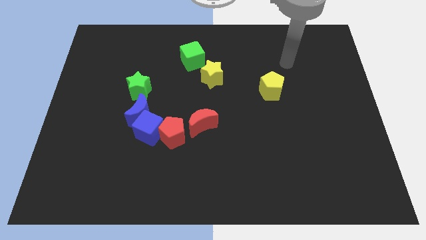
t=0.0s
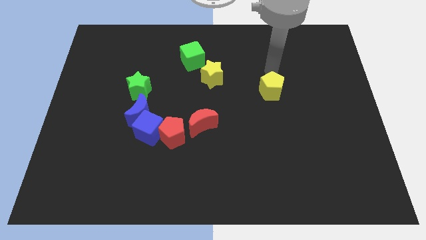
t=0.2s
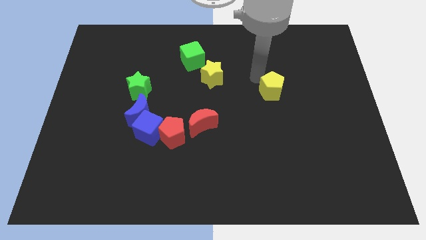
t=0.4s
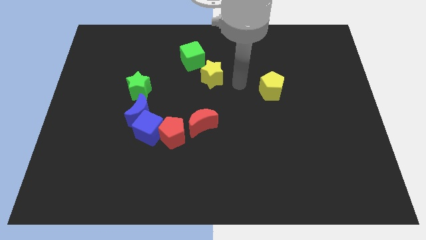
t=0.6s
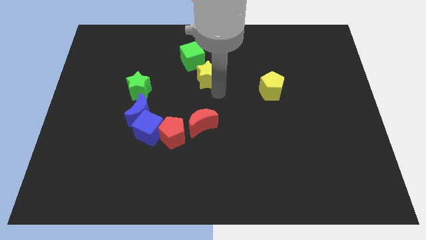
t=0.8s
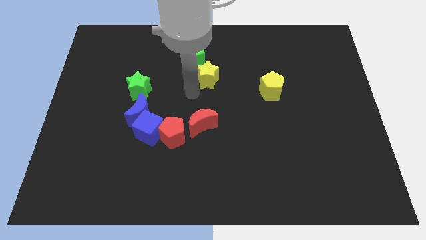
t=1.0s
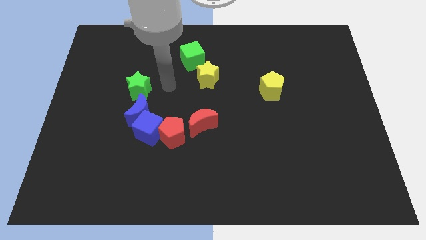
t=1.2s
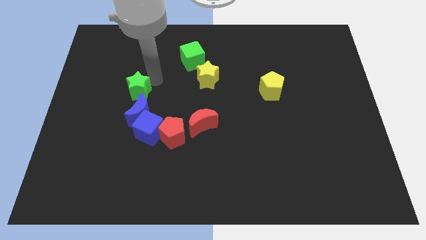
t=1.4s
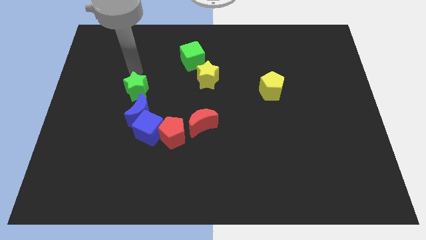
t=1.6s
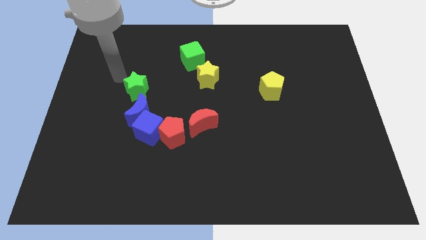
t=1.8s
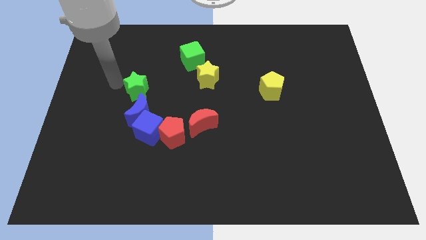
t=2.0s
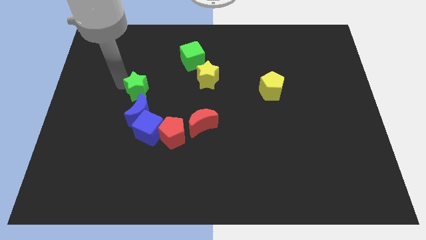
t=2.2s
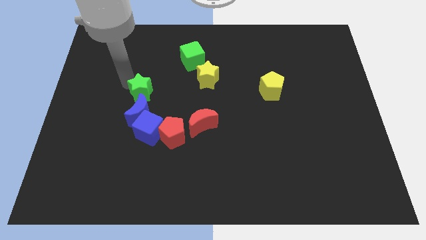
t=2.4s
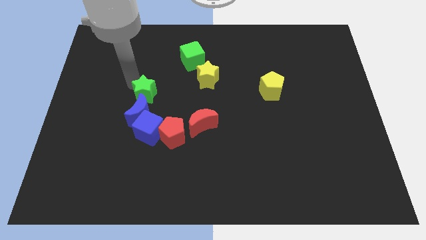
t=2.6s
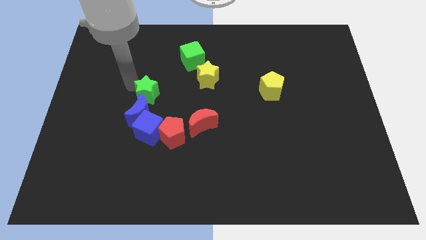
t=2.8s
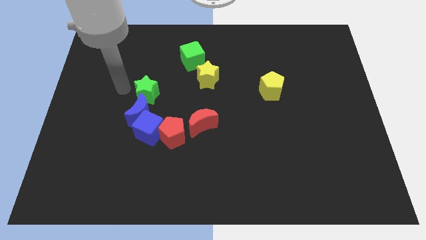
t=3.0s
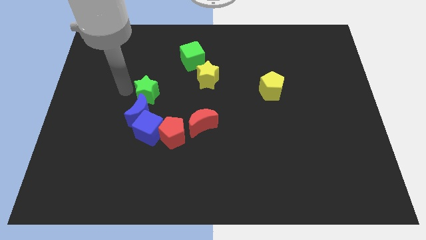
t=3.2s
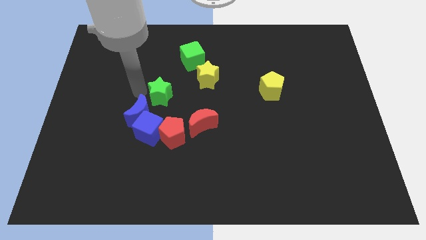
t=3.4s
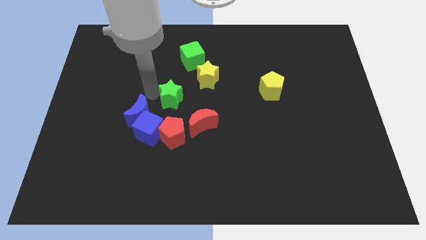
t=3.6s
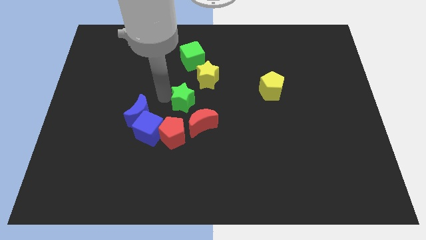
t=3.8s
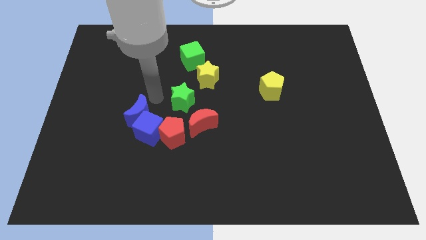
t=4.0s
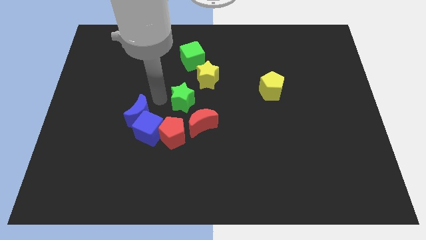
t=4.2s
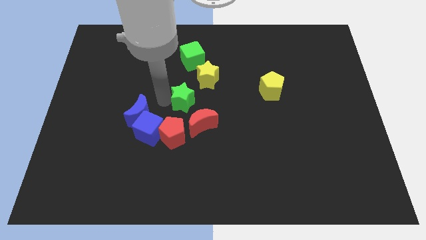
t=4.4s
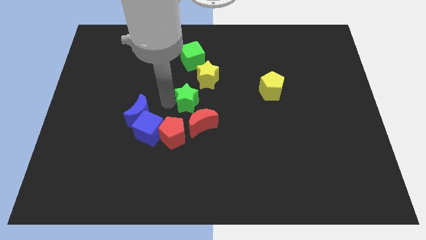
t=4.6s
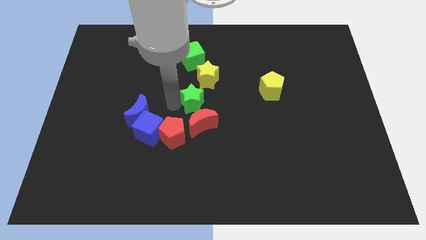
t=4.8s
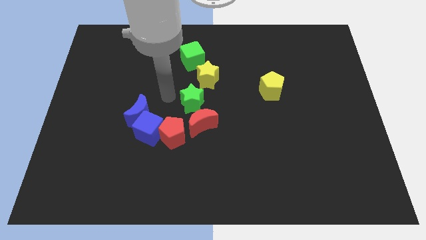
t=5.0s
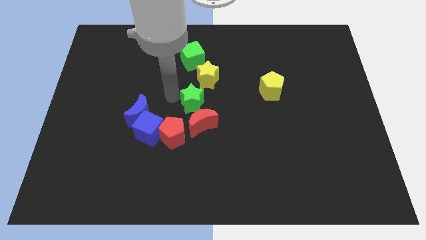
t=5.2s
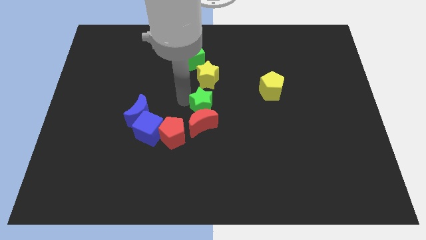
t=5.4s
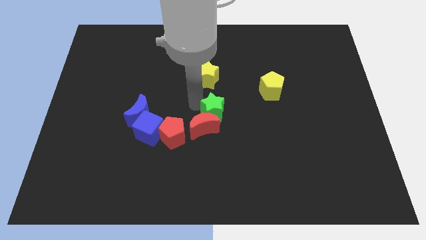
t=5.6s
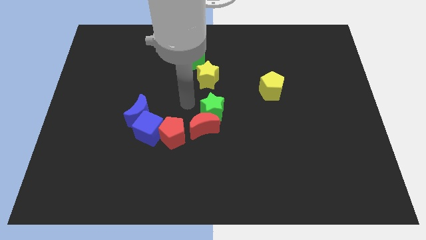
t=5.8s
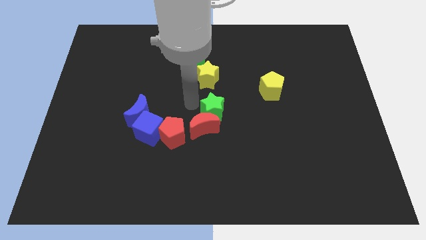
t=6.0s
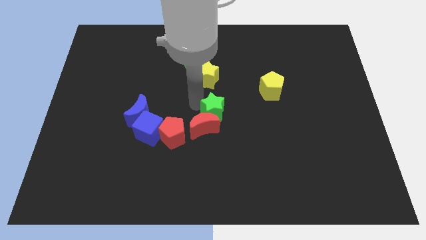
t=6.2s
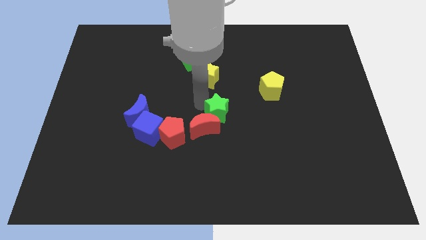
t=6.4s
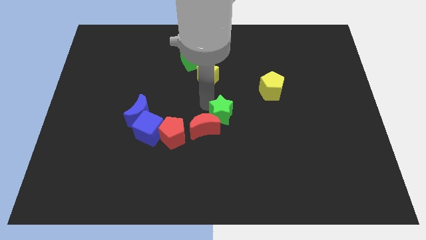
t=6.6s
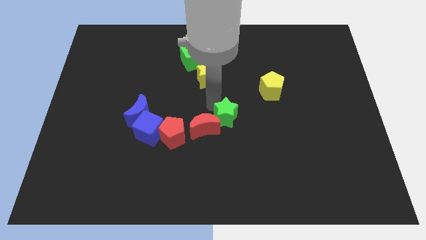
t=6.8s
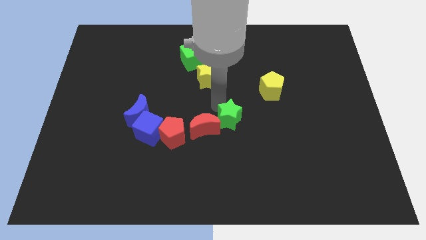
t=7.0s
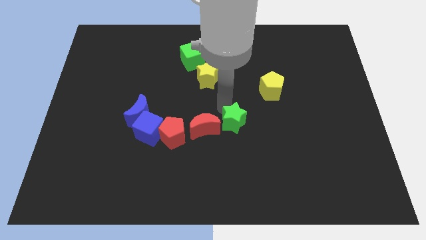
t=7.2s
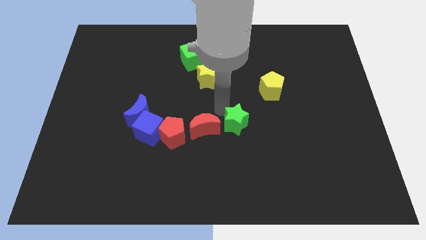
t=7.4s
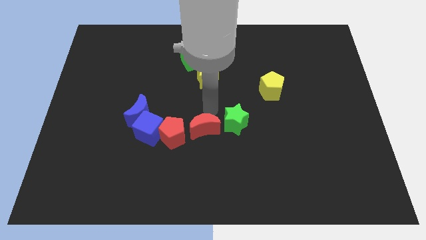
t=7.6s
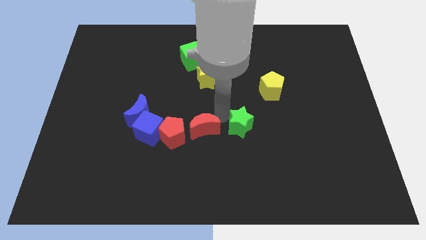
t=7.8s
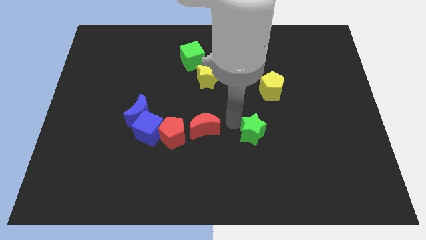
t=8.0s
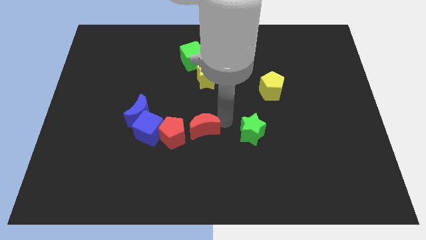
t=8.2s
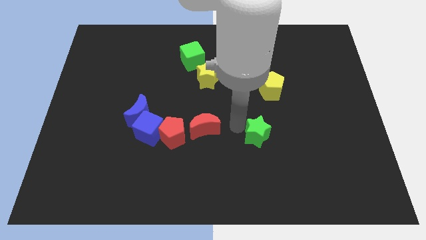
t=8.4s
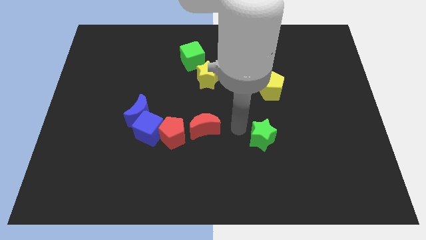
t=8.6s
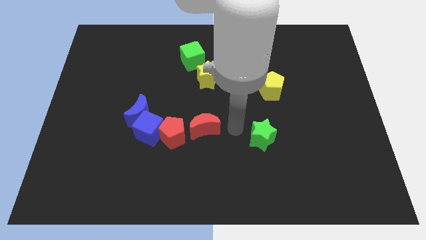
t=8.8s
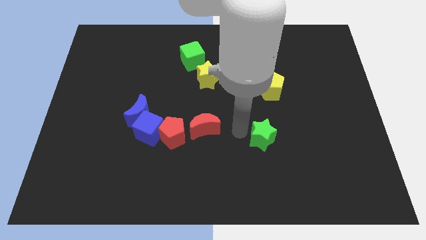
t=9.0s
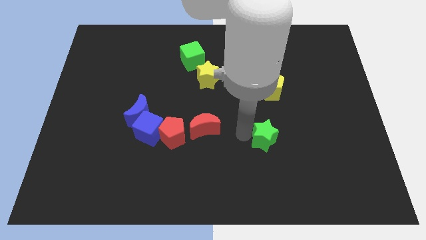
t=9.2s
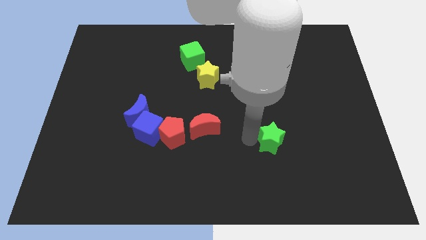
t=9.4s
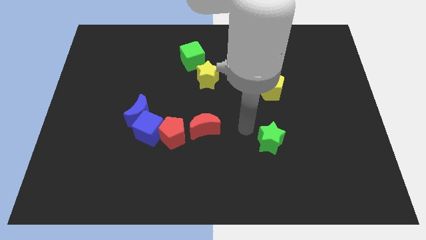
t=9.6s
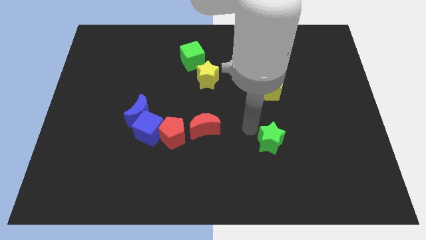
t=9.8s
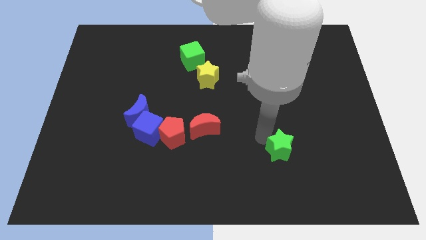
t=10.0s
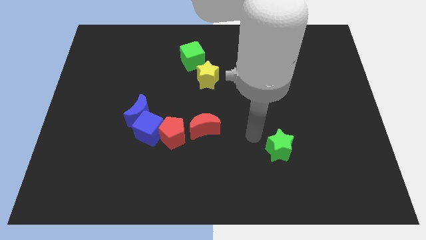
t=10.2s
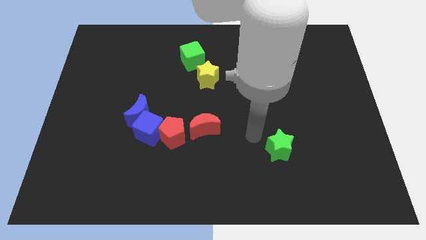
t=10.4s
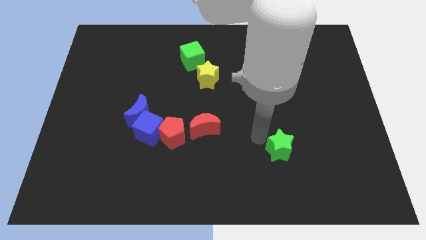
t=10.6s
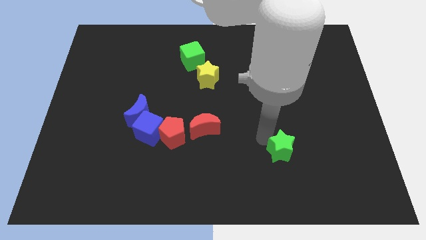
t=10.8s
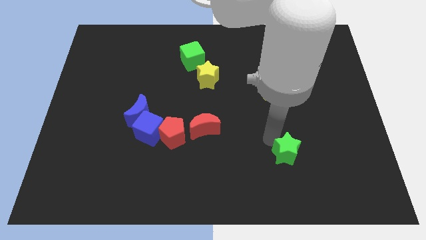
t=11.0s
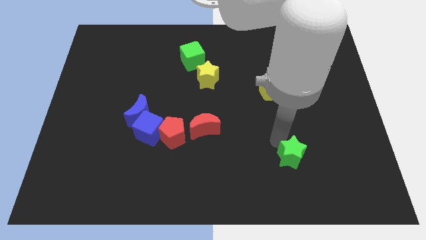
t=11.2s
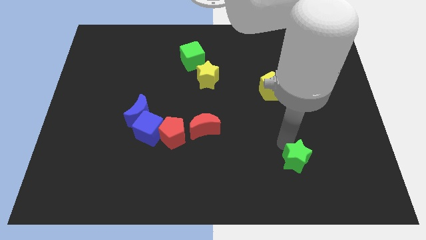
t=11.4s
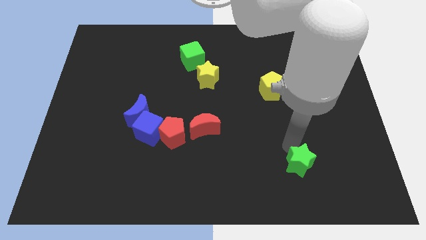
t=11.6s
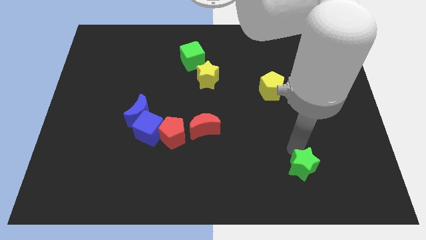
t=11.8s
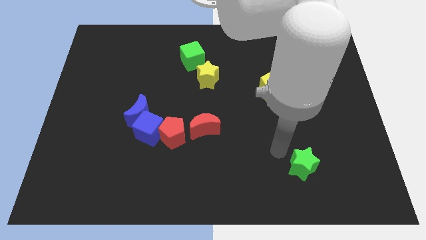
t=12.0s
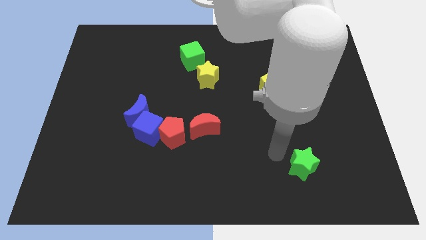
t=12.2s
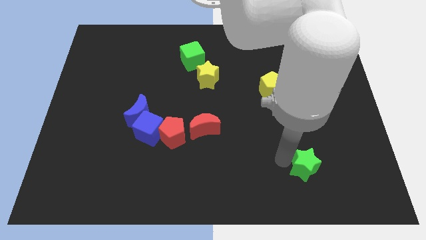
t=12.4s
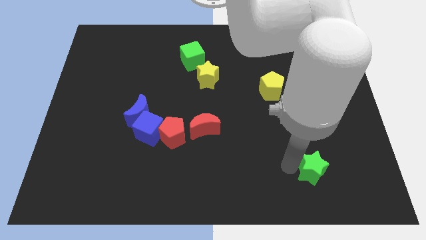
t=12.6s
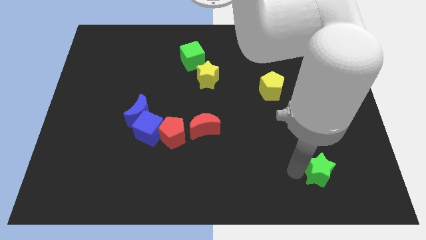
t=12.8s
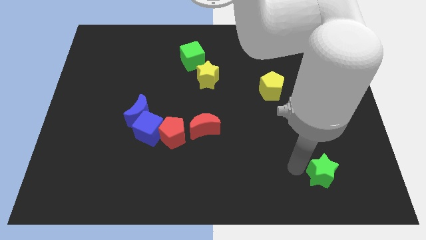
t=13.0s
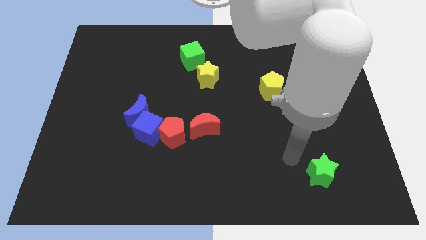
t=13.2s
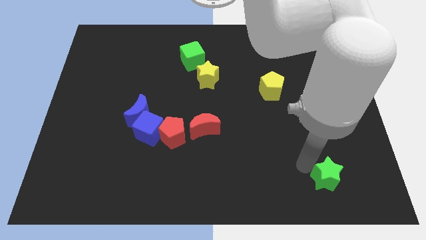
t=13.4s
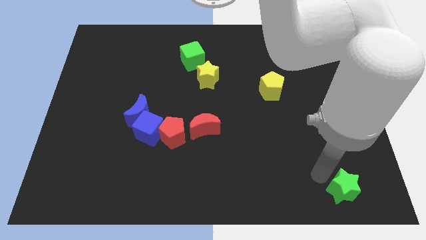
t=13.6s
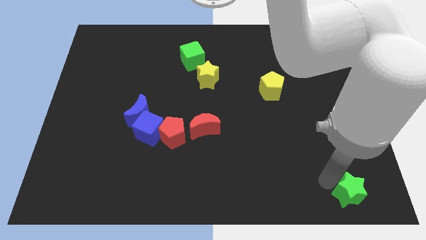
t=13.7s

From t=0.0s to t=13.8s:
slide the green star to the bottom right
